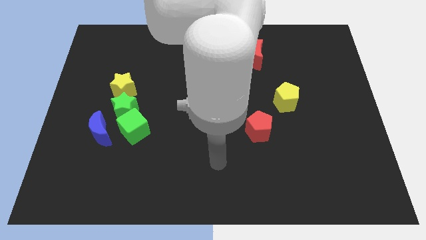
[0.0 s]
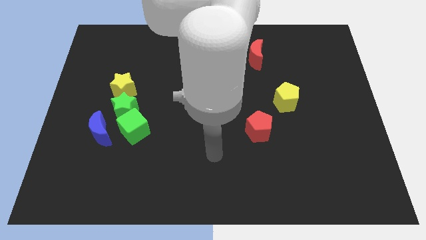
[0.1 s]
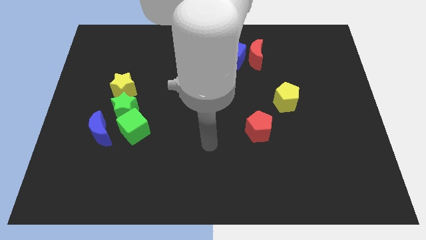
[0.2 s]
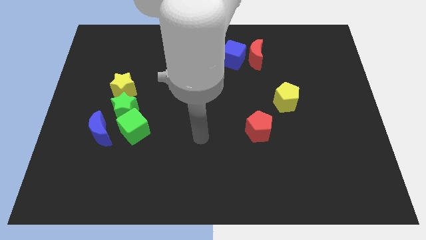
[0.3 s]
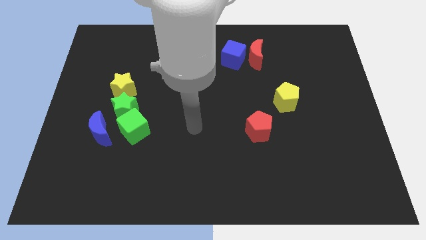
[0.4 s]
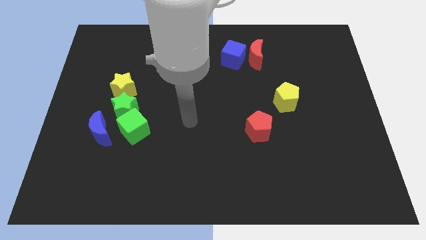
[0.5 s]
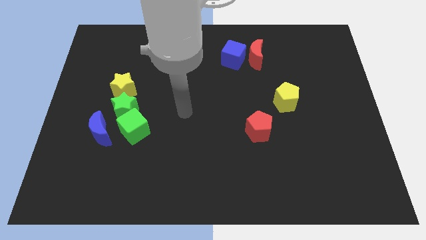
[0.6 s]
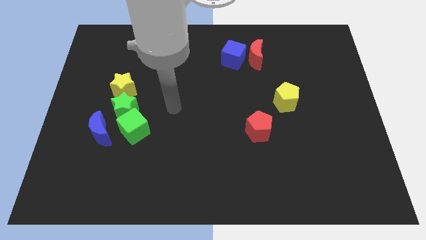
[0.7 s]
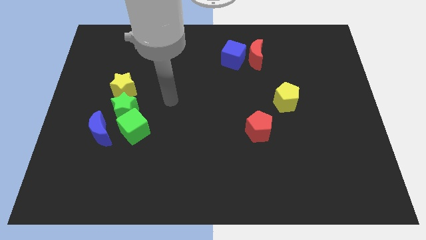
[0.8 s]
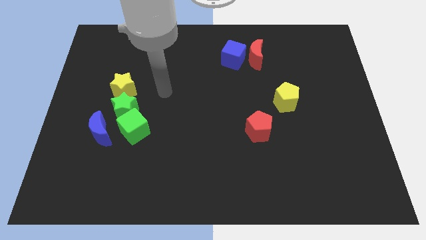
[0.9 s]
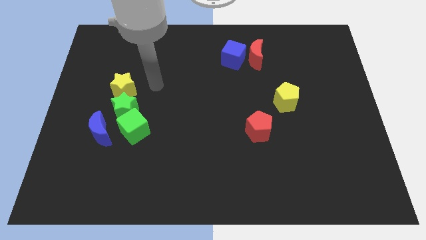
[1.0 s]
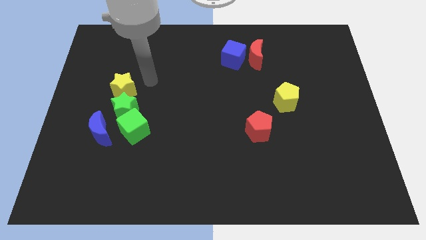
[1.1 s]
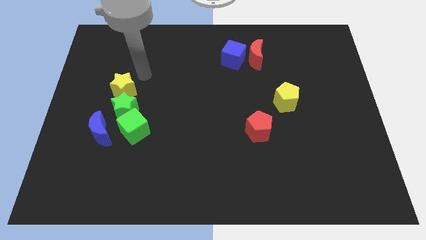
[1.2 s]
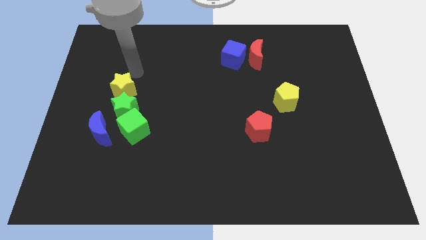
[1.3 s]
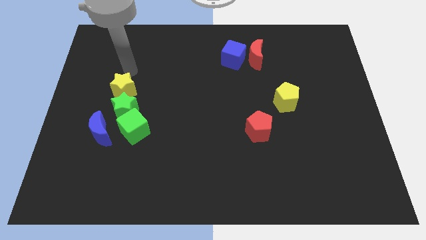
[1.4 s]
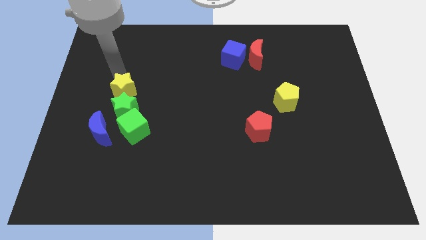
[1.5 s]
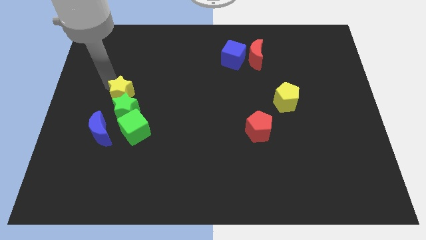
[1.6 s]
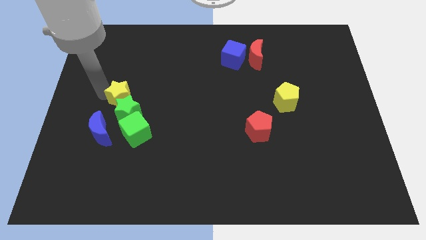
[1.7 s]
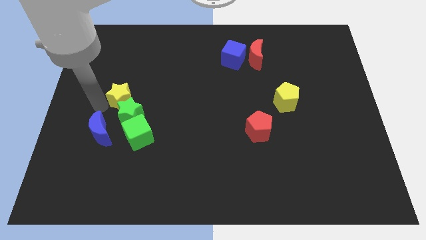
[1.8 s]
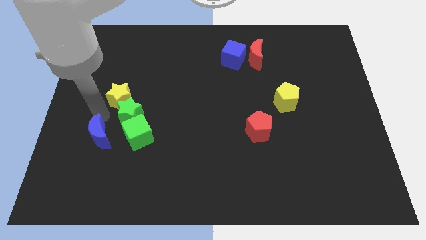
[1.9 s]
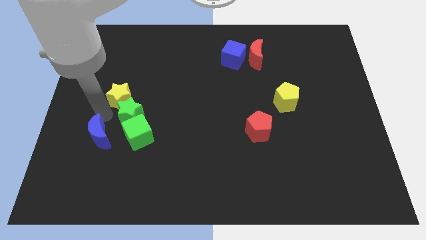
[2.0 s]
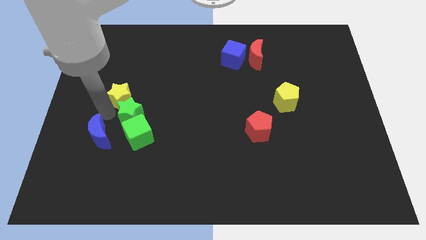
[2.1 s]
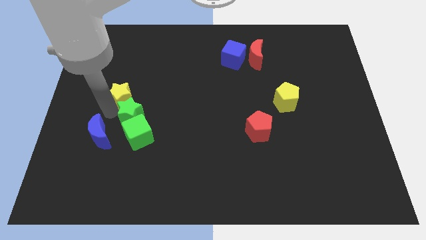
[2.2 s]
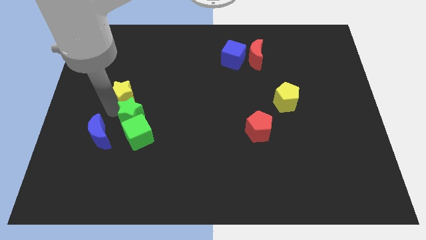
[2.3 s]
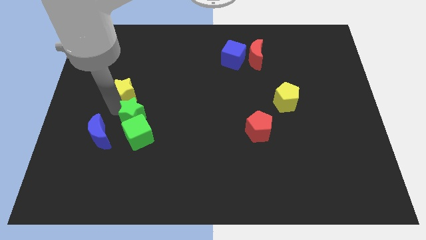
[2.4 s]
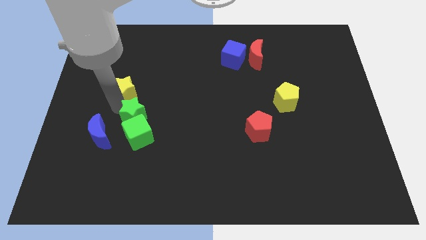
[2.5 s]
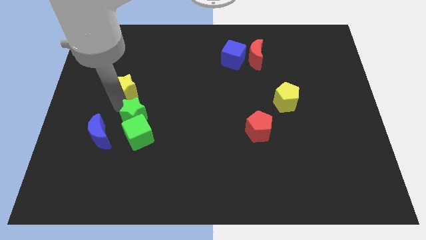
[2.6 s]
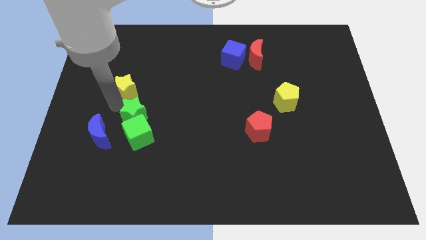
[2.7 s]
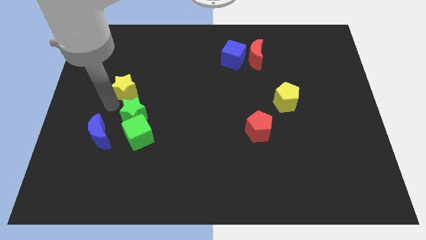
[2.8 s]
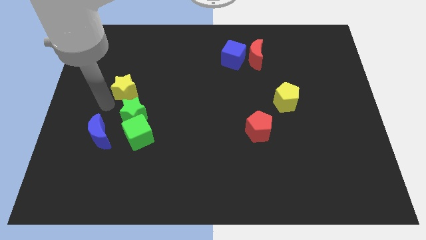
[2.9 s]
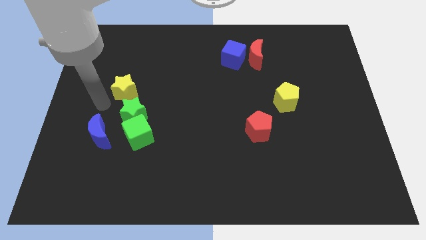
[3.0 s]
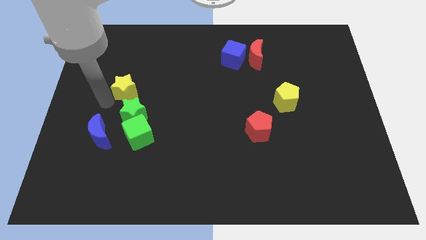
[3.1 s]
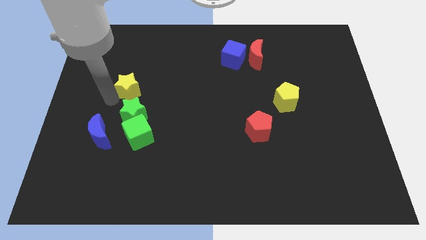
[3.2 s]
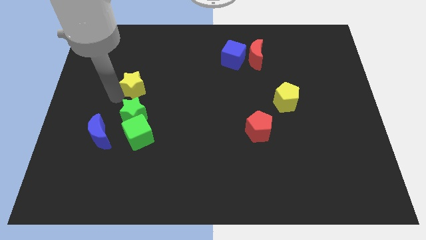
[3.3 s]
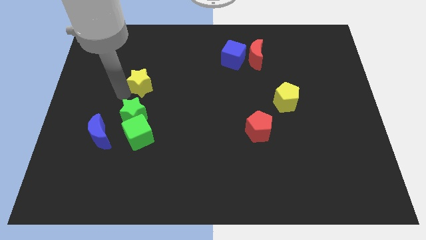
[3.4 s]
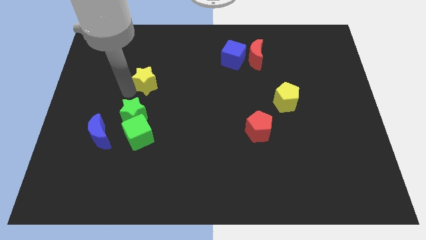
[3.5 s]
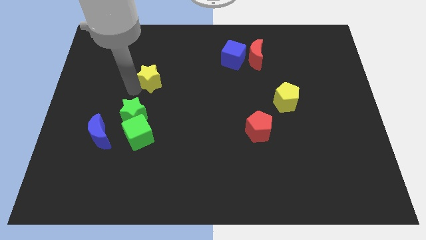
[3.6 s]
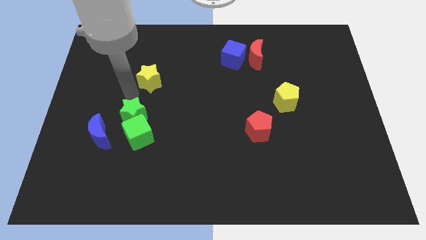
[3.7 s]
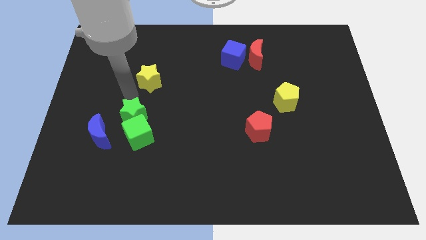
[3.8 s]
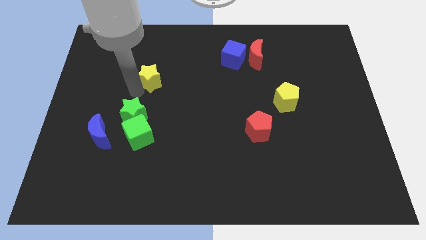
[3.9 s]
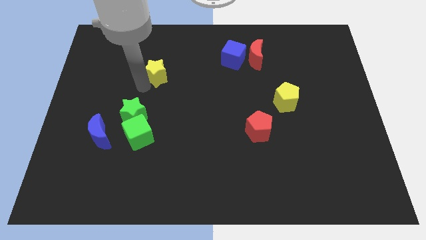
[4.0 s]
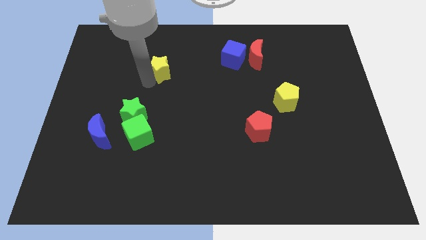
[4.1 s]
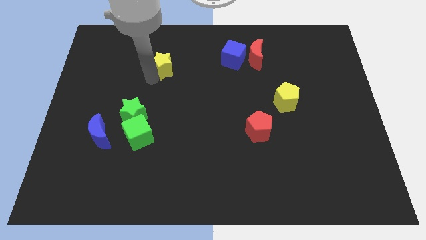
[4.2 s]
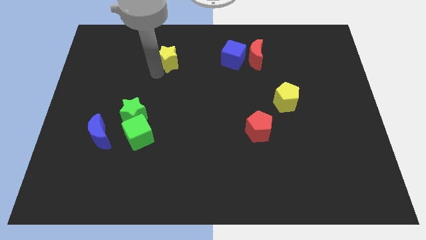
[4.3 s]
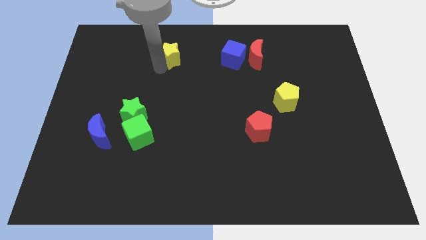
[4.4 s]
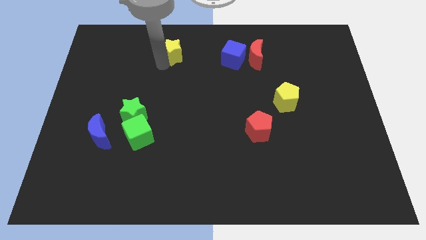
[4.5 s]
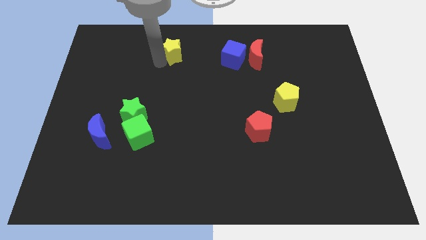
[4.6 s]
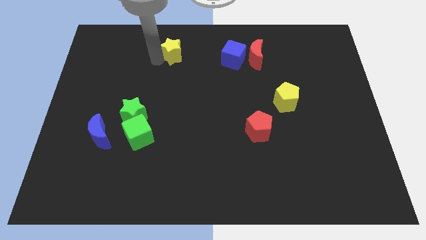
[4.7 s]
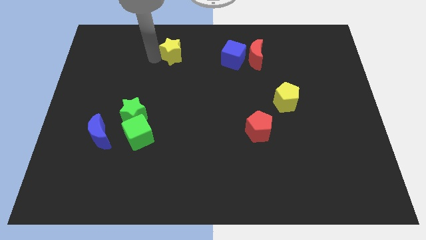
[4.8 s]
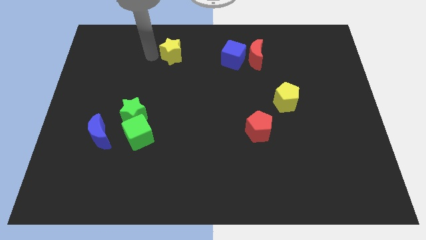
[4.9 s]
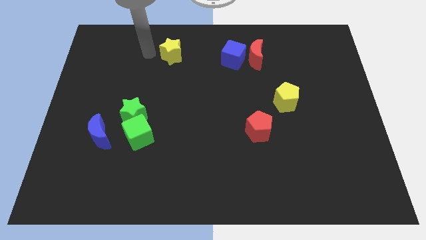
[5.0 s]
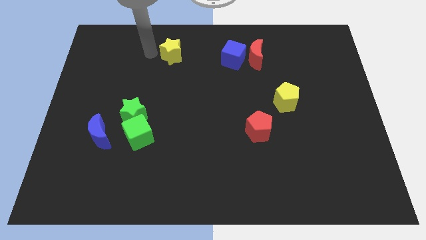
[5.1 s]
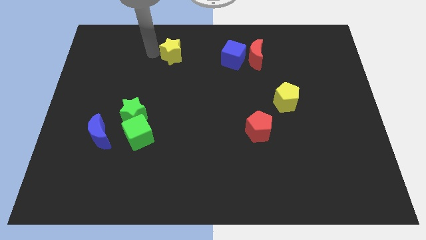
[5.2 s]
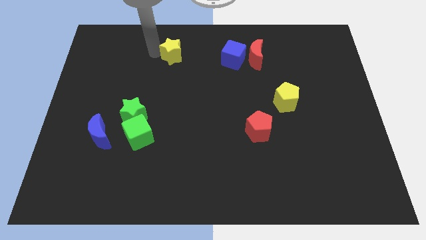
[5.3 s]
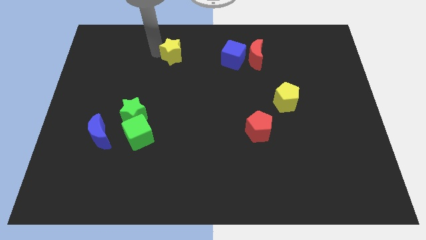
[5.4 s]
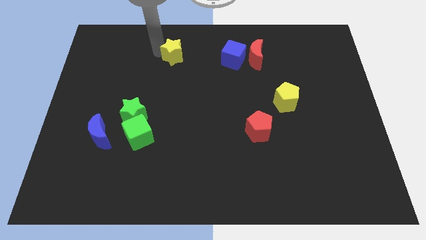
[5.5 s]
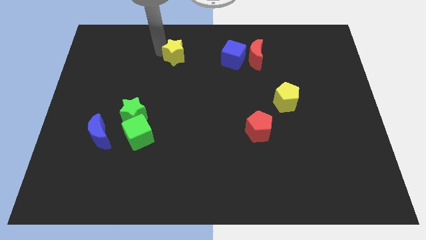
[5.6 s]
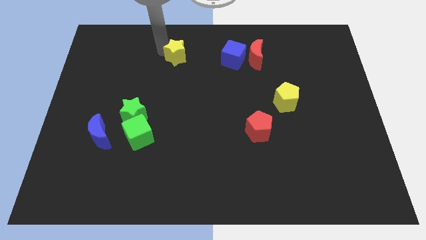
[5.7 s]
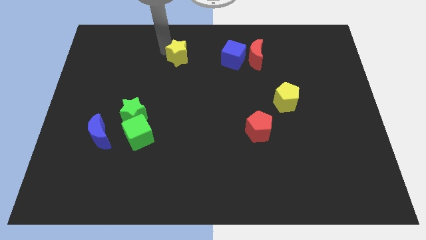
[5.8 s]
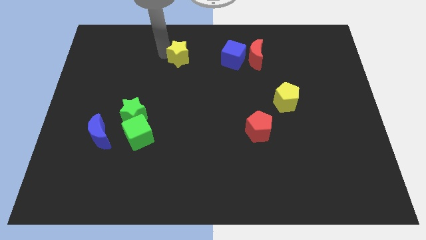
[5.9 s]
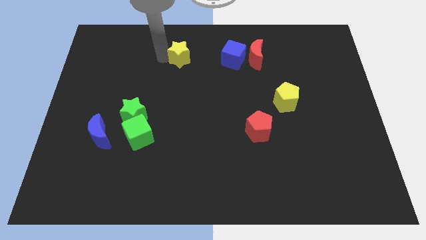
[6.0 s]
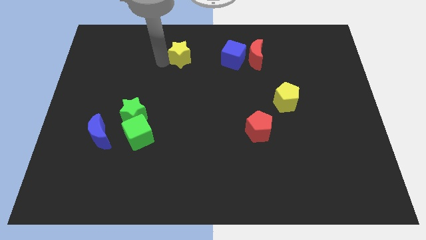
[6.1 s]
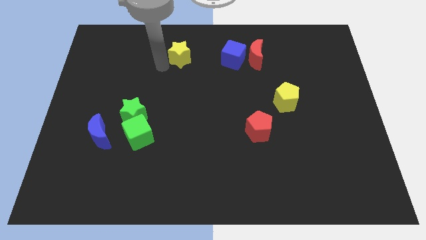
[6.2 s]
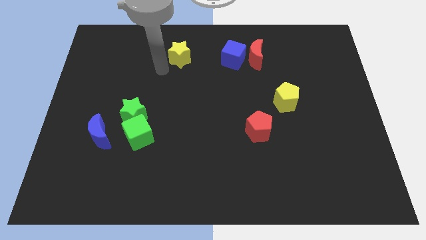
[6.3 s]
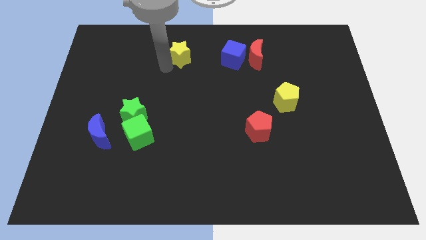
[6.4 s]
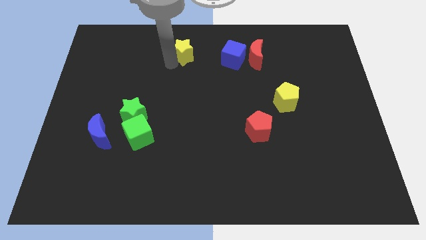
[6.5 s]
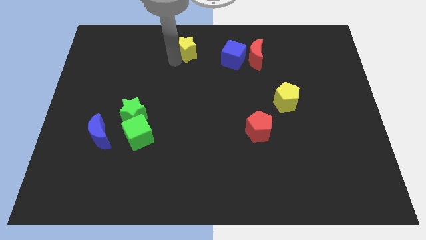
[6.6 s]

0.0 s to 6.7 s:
move the yellow star to the towards your base
